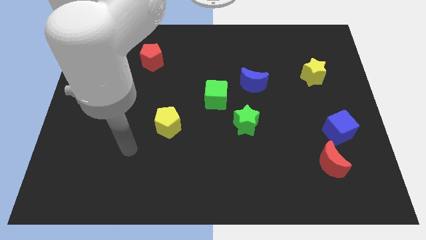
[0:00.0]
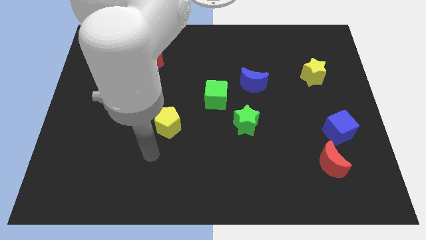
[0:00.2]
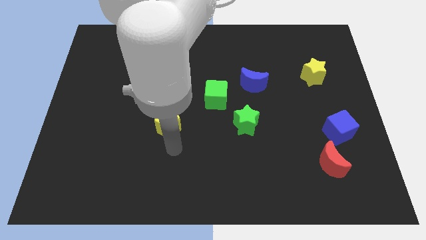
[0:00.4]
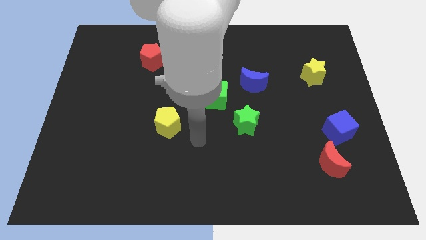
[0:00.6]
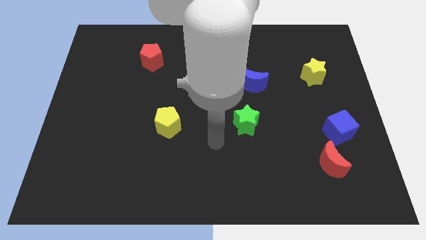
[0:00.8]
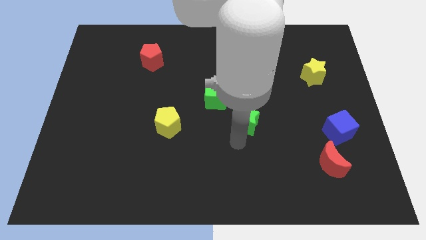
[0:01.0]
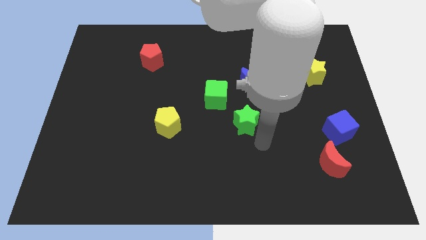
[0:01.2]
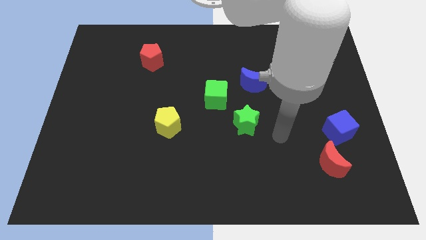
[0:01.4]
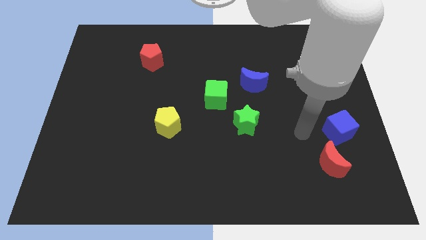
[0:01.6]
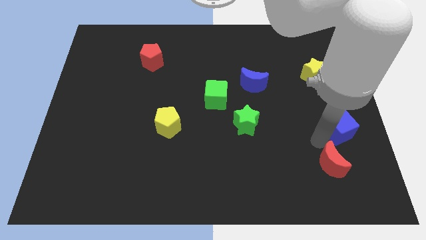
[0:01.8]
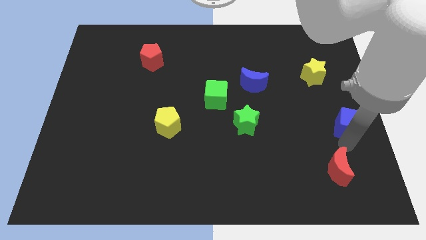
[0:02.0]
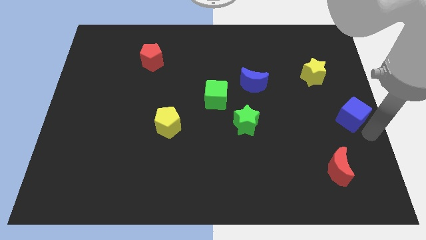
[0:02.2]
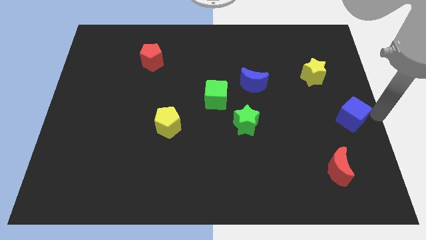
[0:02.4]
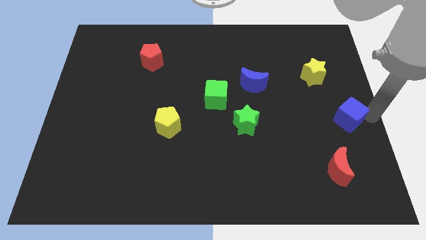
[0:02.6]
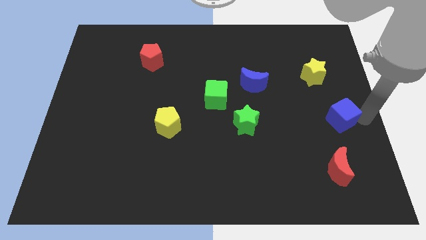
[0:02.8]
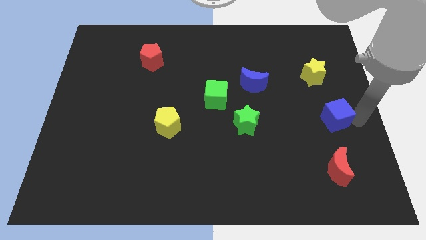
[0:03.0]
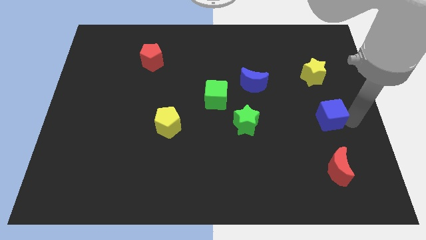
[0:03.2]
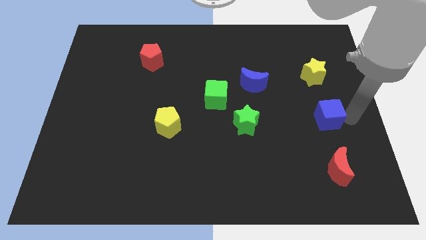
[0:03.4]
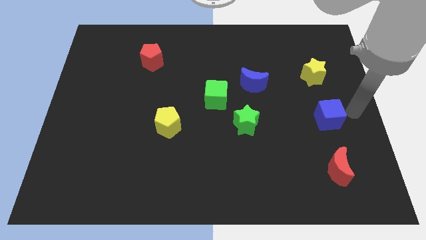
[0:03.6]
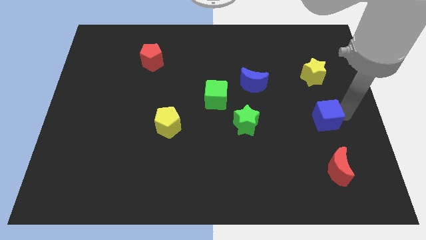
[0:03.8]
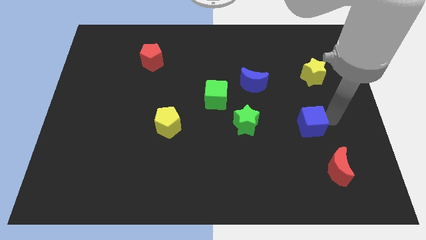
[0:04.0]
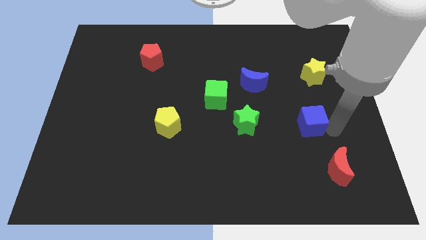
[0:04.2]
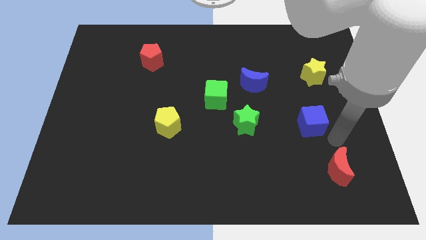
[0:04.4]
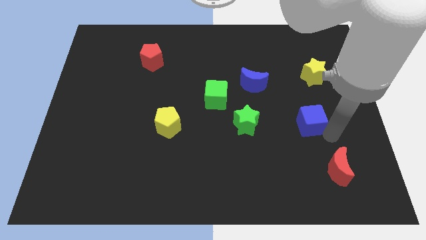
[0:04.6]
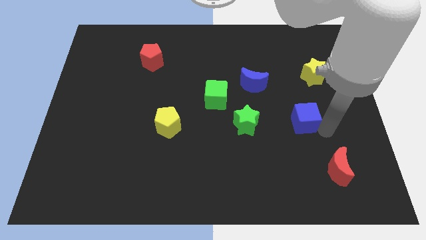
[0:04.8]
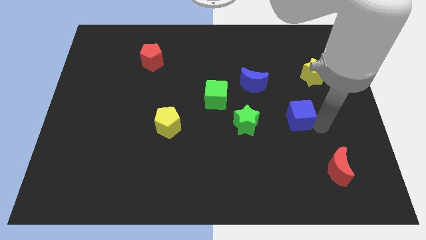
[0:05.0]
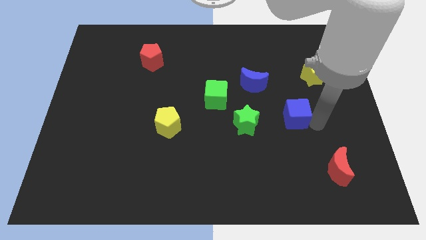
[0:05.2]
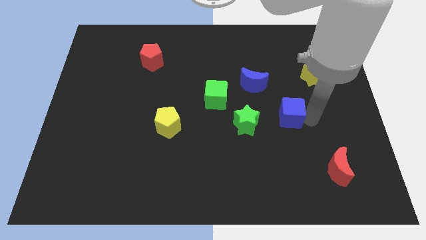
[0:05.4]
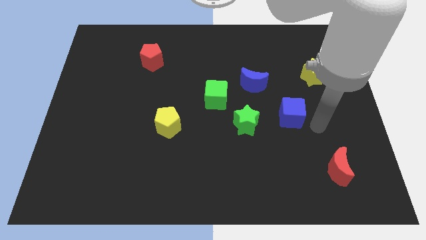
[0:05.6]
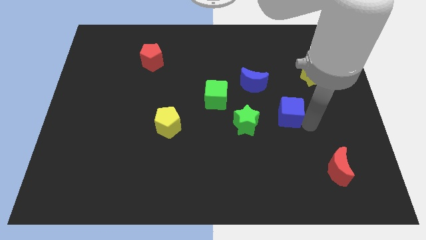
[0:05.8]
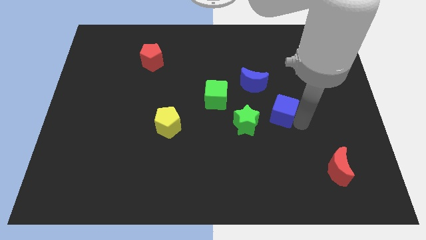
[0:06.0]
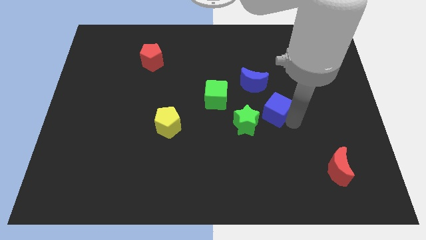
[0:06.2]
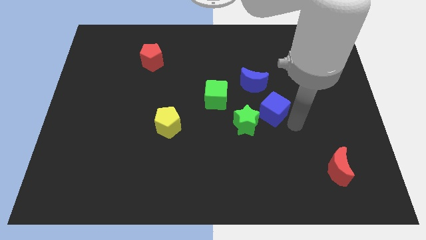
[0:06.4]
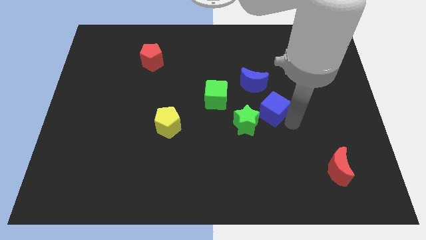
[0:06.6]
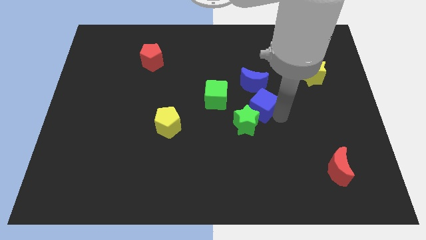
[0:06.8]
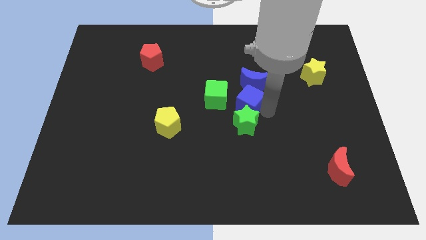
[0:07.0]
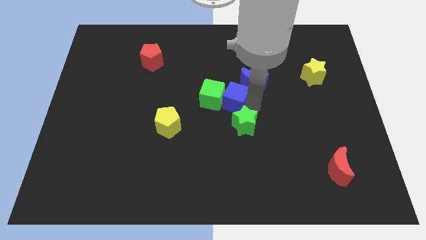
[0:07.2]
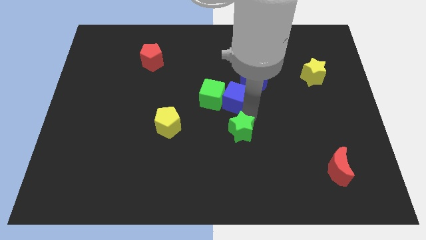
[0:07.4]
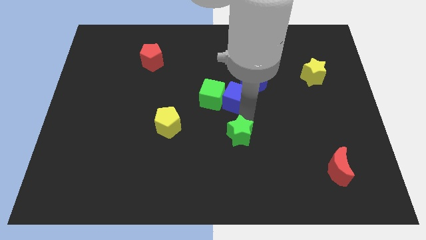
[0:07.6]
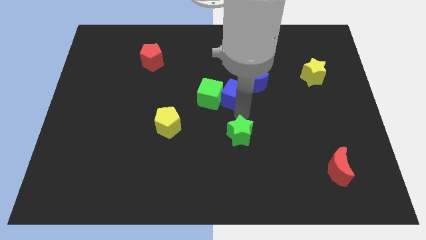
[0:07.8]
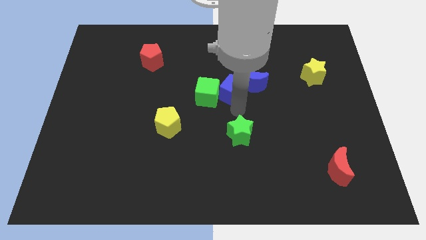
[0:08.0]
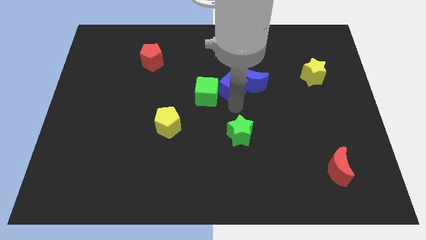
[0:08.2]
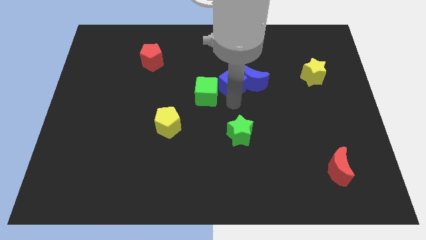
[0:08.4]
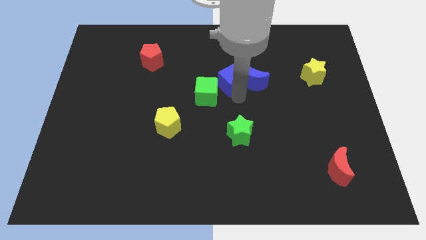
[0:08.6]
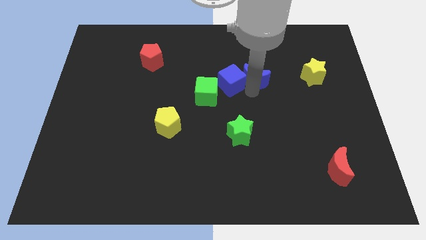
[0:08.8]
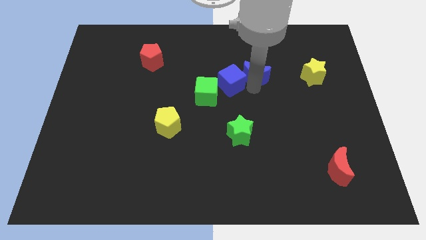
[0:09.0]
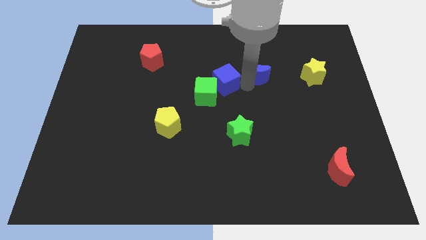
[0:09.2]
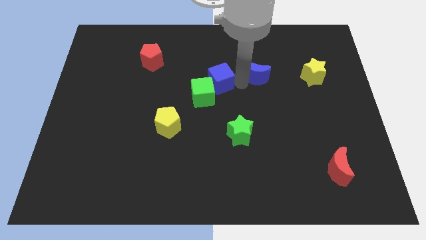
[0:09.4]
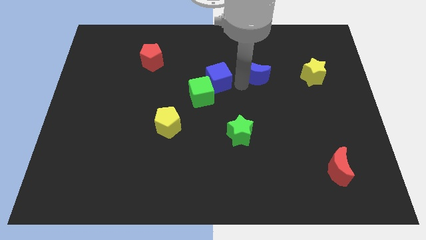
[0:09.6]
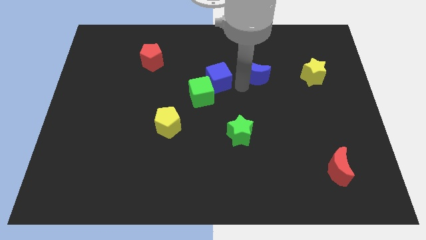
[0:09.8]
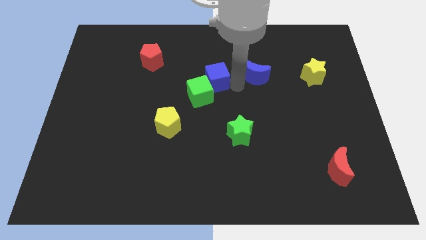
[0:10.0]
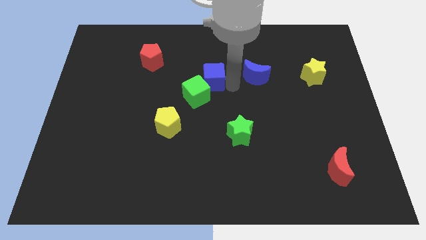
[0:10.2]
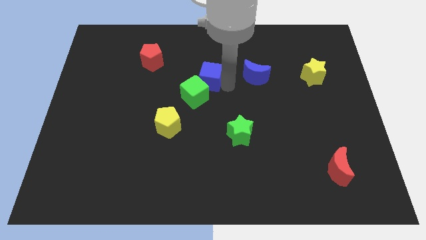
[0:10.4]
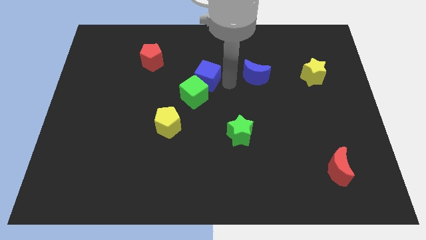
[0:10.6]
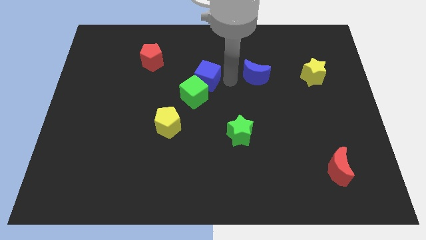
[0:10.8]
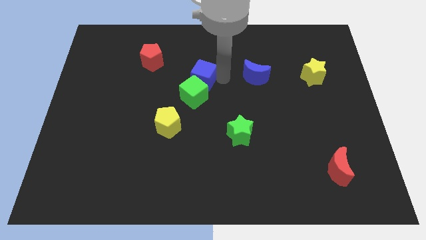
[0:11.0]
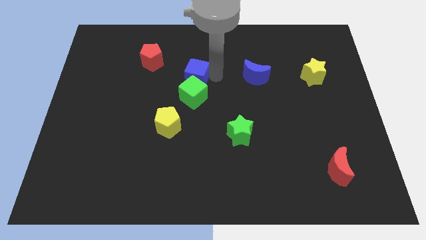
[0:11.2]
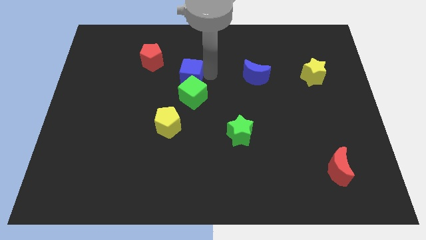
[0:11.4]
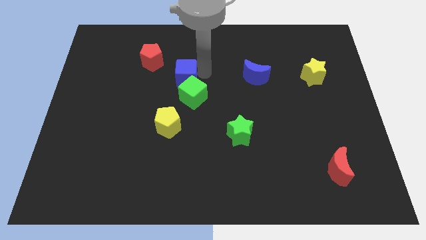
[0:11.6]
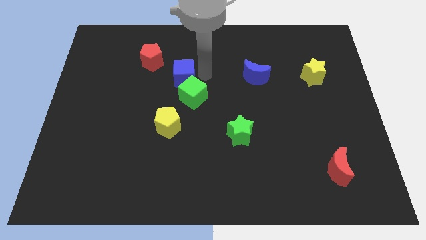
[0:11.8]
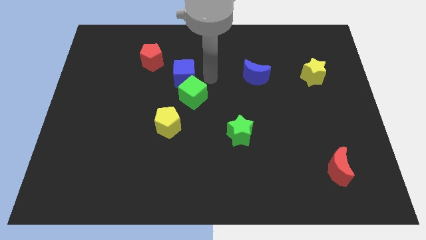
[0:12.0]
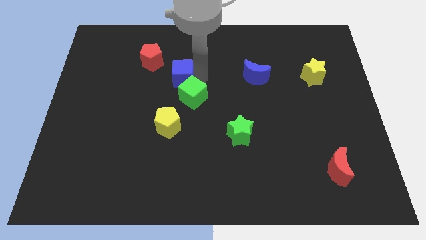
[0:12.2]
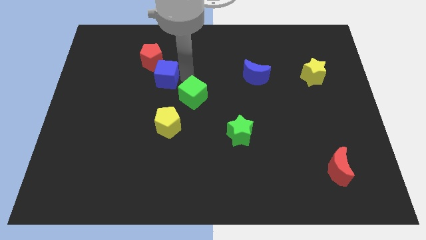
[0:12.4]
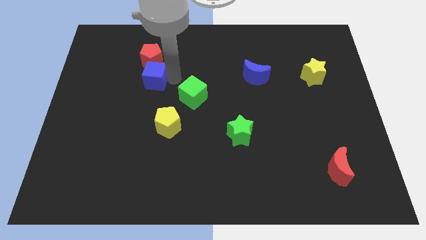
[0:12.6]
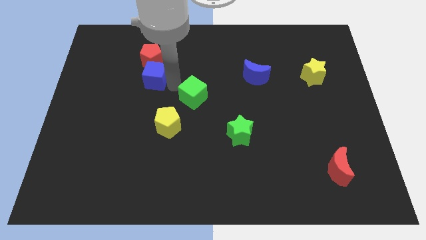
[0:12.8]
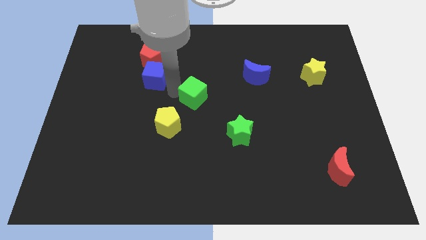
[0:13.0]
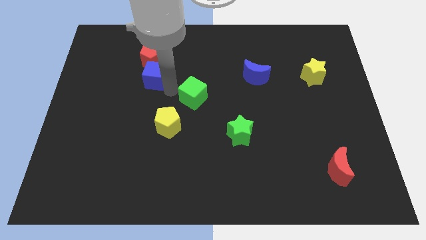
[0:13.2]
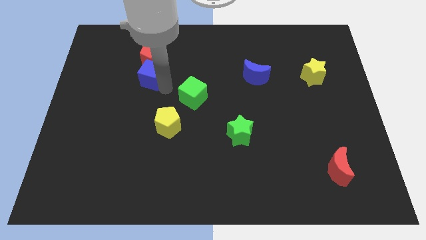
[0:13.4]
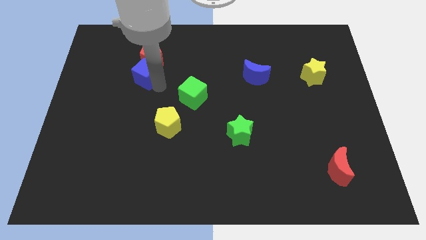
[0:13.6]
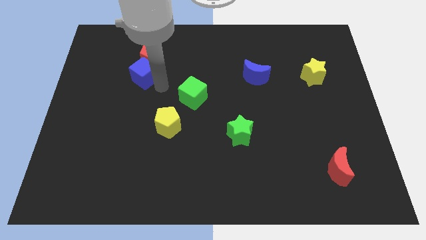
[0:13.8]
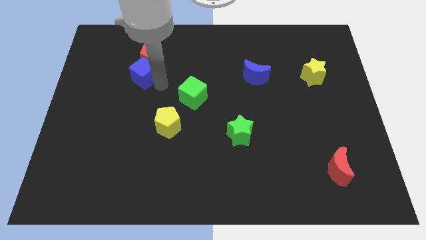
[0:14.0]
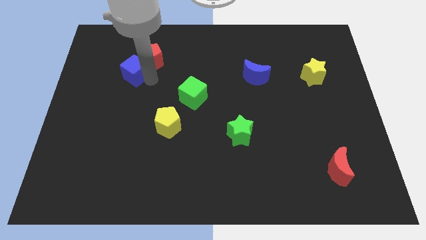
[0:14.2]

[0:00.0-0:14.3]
put the blue cube to the left side of the red pentagon
